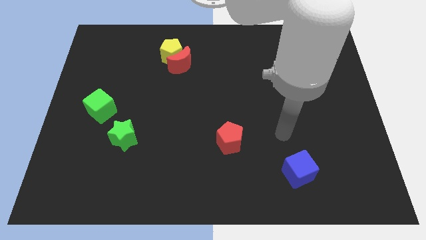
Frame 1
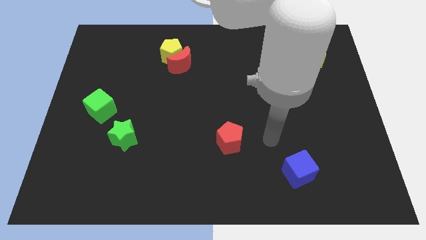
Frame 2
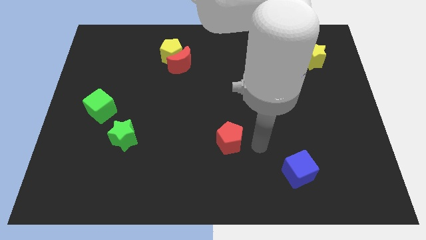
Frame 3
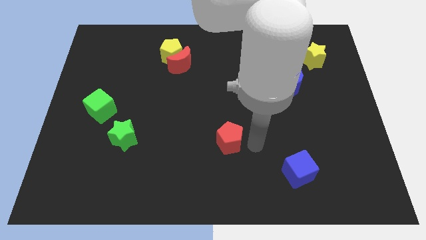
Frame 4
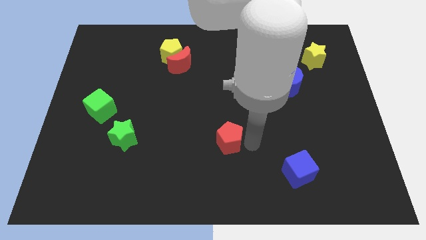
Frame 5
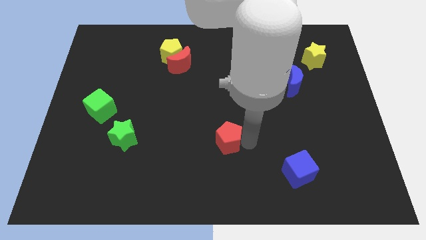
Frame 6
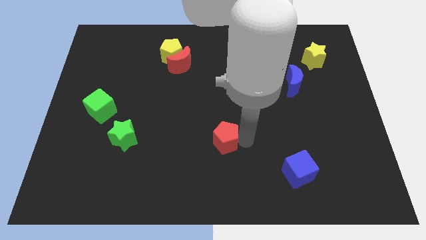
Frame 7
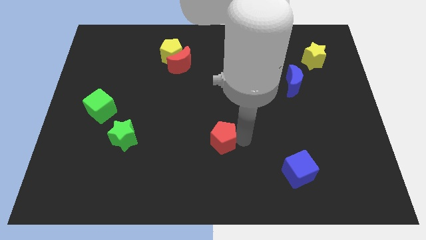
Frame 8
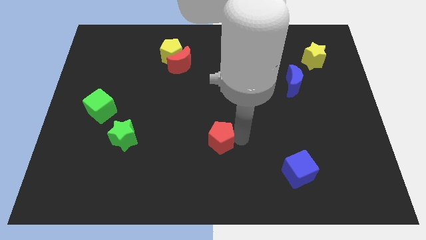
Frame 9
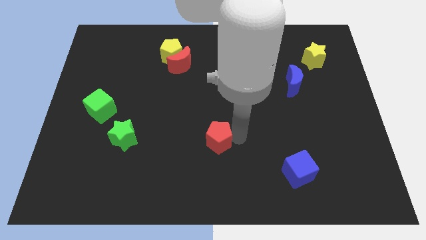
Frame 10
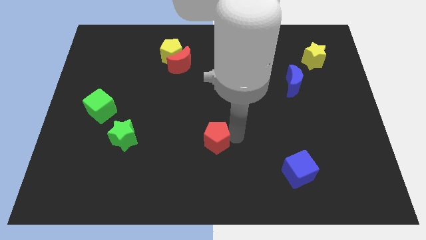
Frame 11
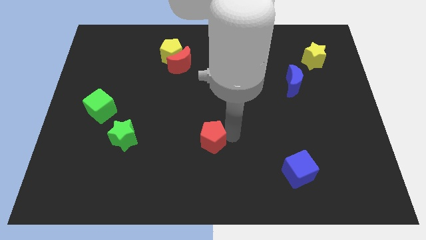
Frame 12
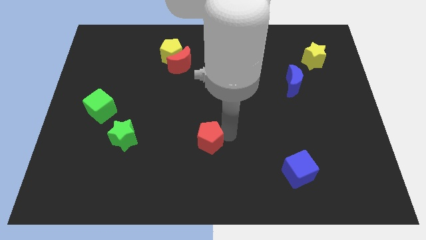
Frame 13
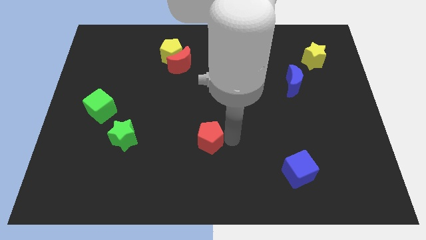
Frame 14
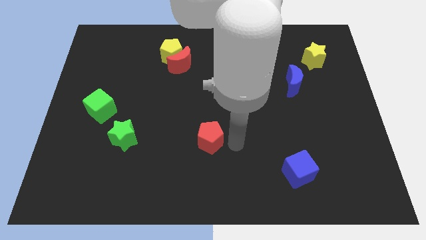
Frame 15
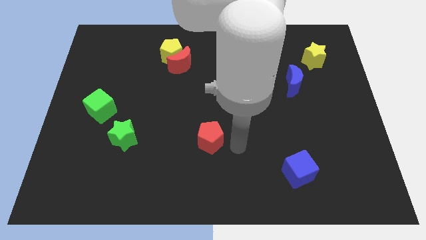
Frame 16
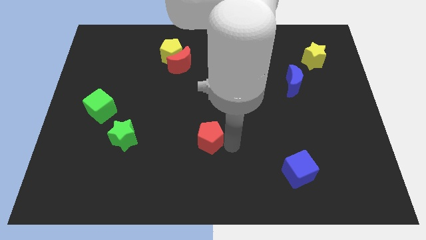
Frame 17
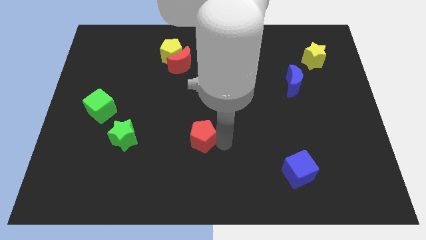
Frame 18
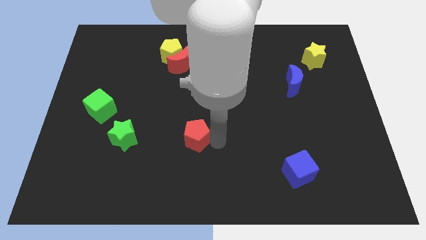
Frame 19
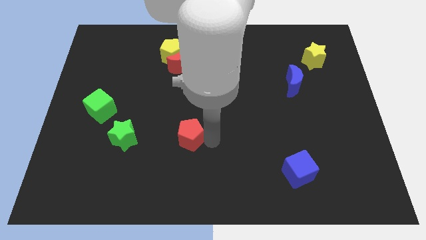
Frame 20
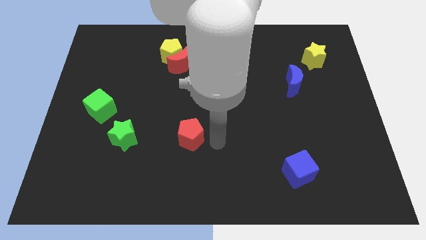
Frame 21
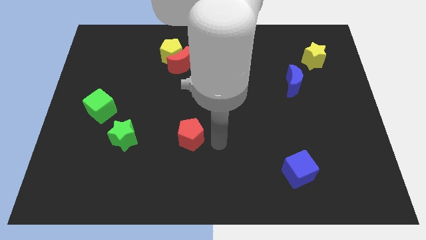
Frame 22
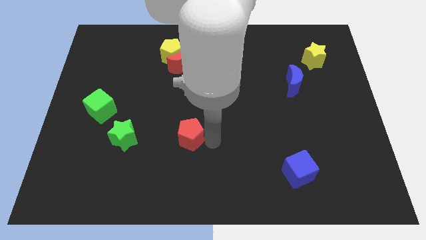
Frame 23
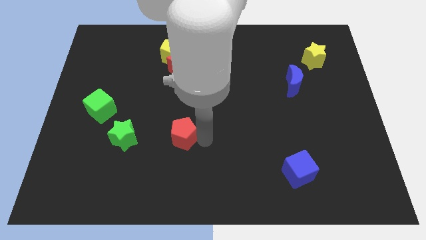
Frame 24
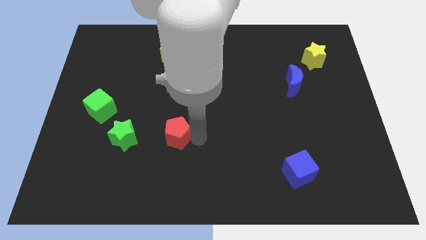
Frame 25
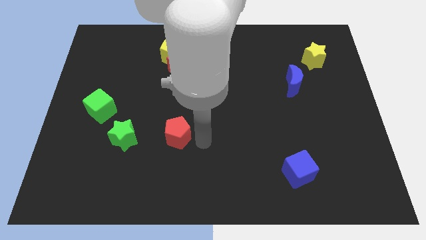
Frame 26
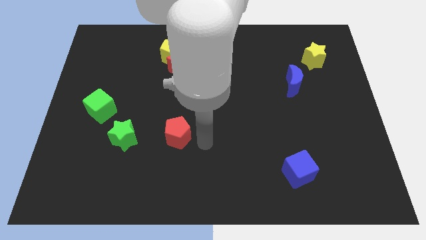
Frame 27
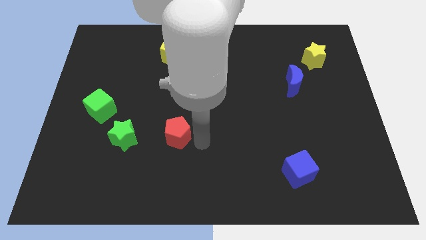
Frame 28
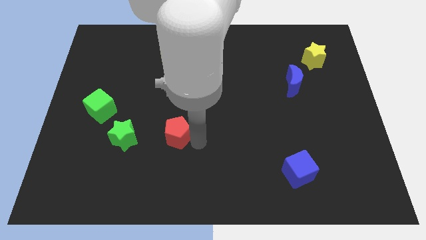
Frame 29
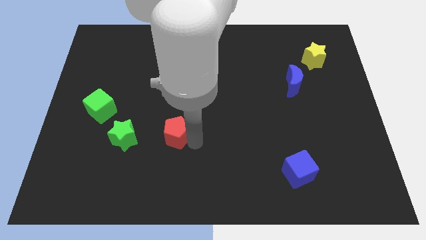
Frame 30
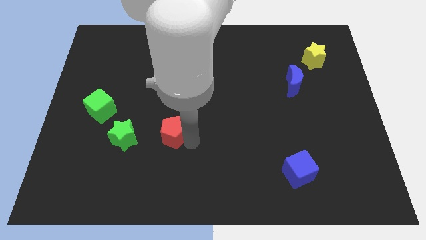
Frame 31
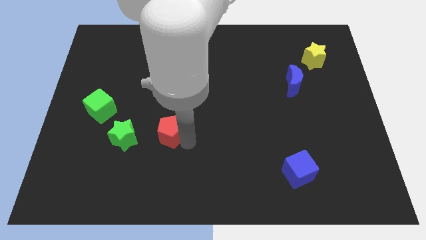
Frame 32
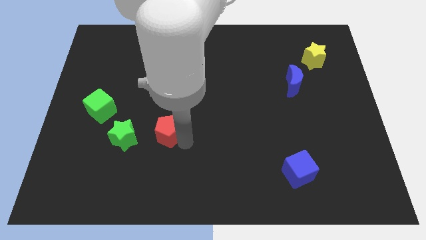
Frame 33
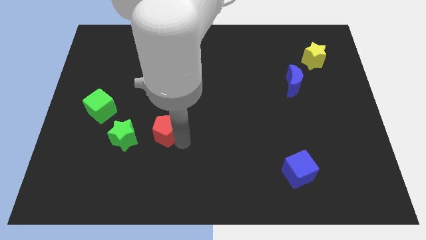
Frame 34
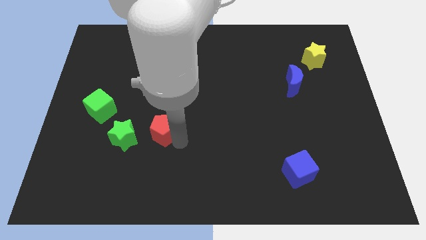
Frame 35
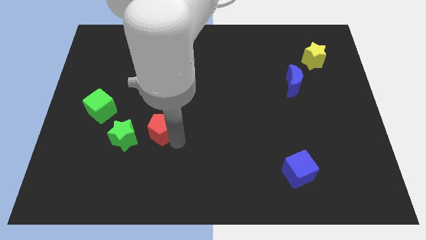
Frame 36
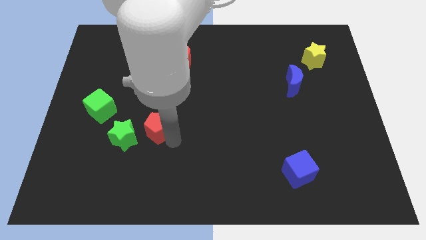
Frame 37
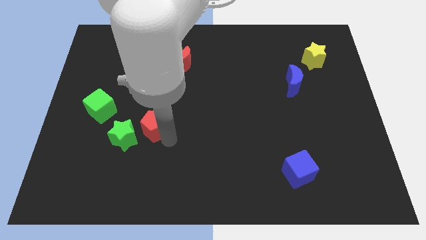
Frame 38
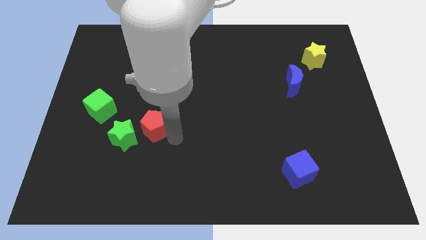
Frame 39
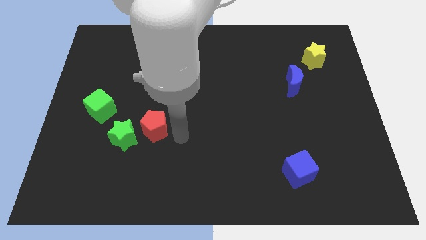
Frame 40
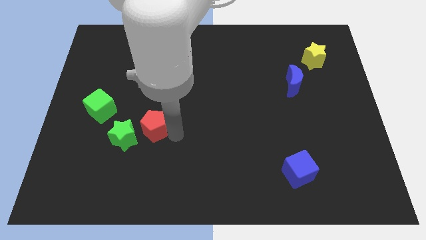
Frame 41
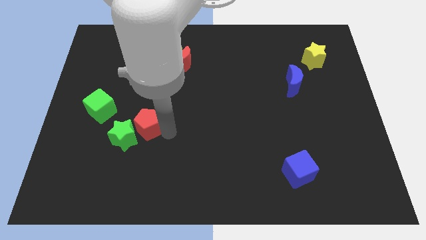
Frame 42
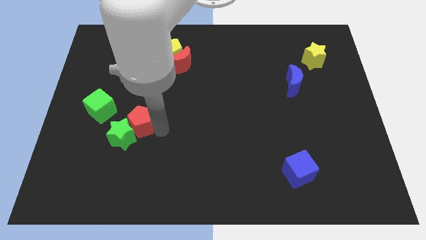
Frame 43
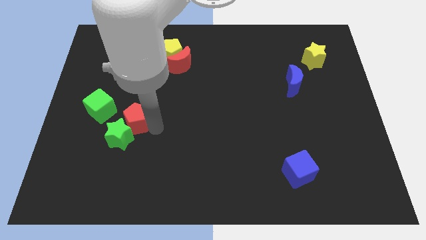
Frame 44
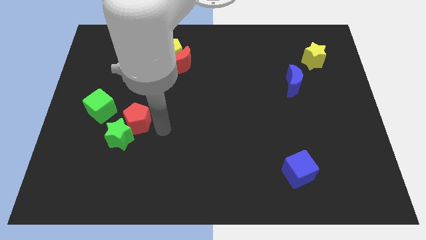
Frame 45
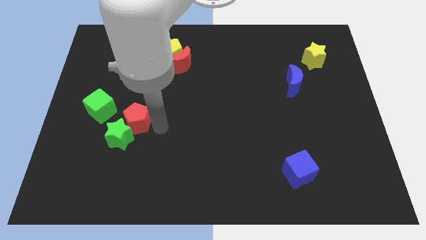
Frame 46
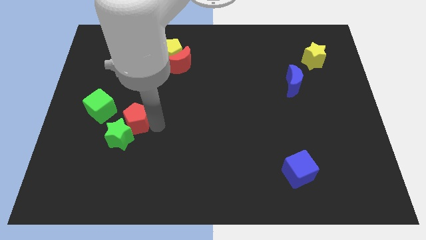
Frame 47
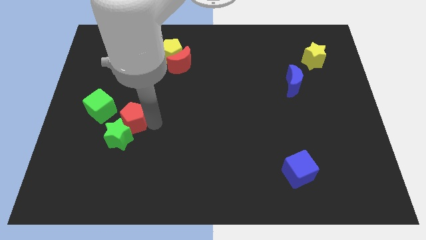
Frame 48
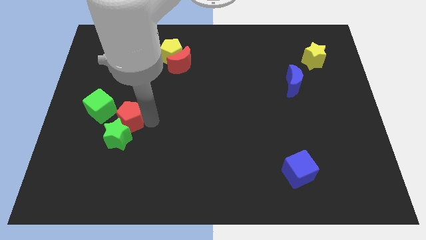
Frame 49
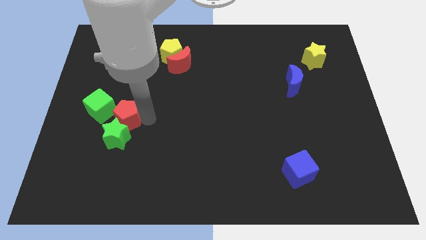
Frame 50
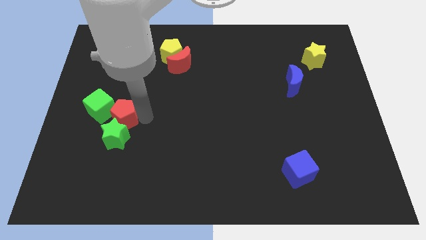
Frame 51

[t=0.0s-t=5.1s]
move the red pentagon close to the green cube

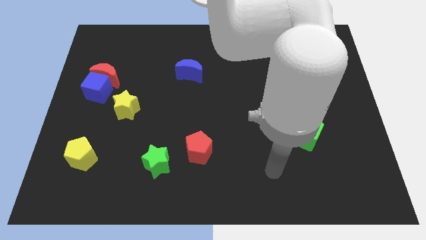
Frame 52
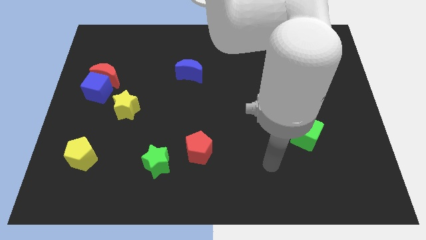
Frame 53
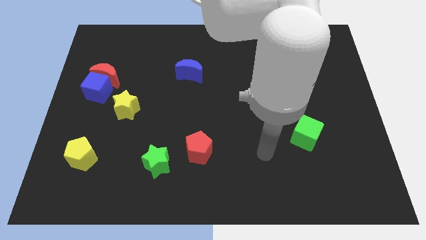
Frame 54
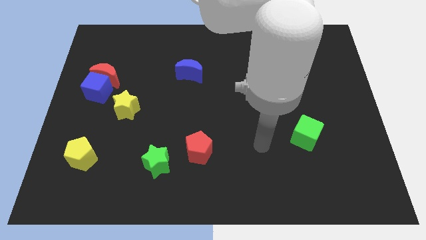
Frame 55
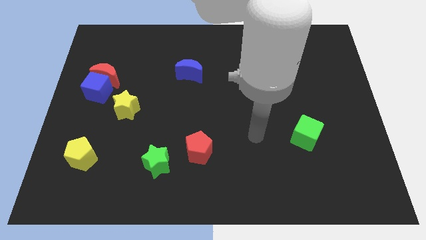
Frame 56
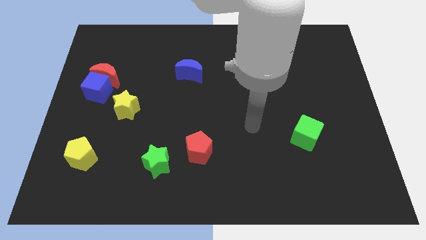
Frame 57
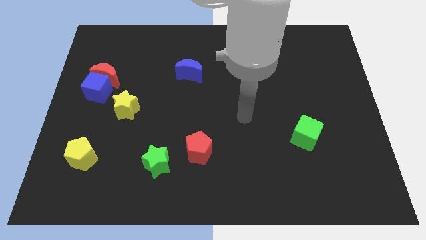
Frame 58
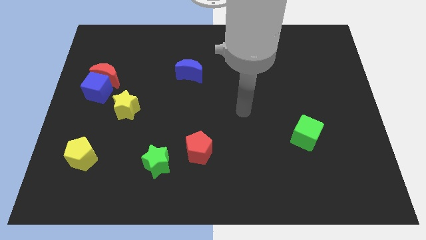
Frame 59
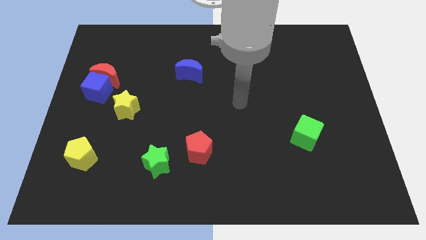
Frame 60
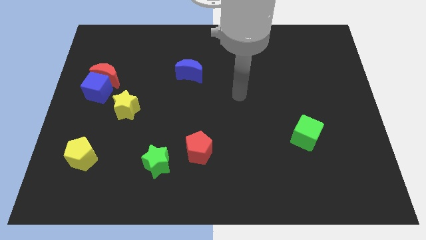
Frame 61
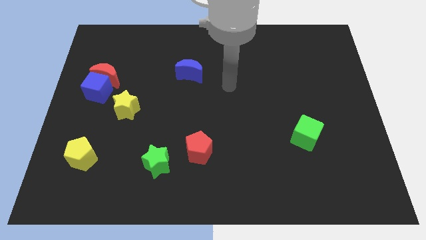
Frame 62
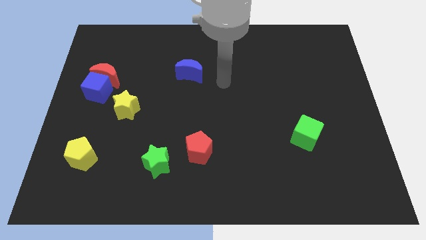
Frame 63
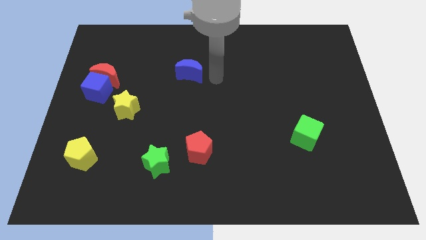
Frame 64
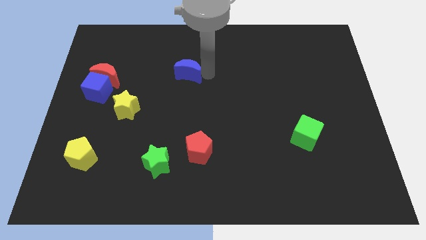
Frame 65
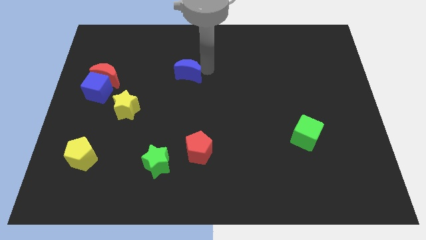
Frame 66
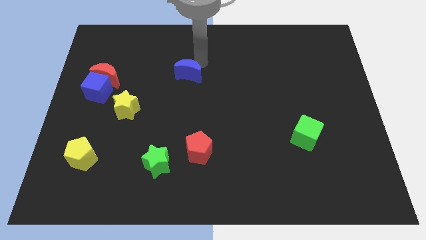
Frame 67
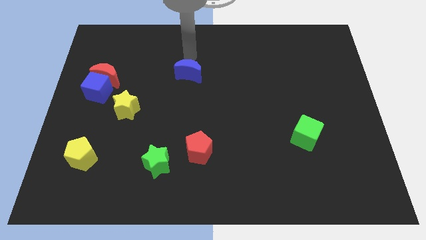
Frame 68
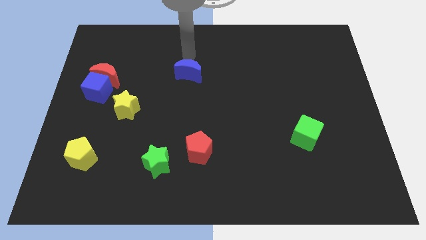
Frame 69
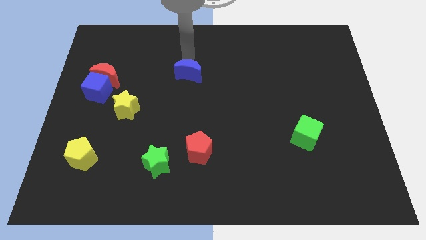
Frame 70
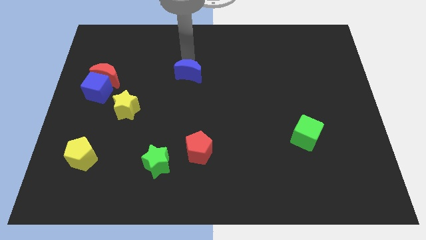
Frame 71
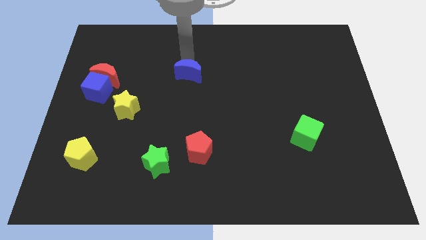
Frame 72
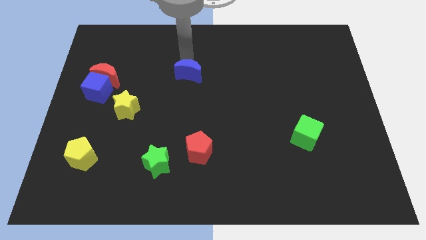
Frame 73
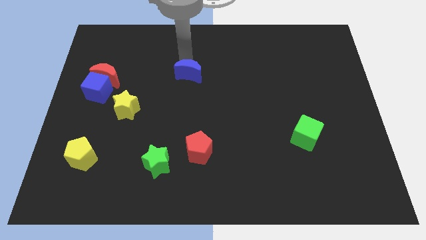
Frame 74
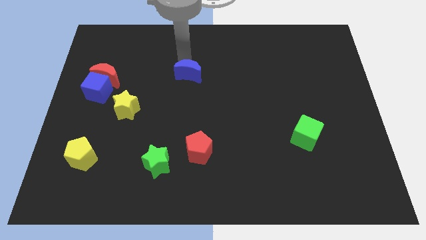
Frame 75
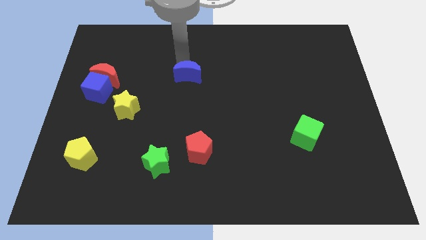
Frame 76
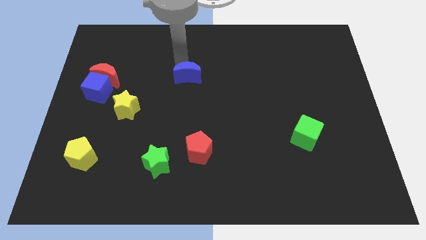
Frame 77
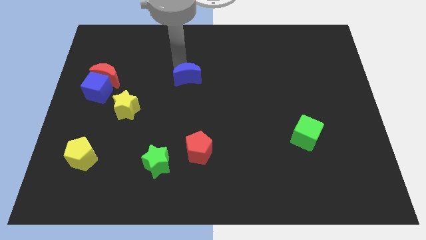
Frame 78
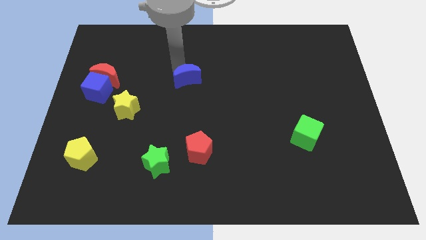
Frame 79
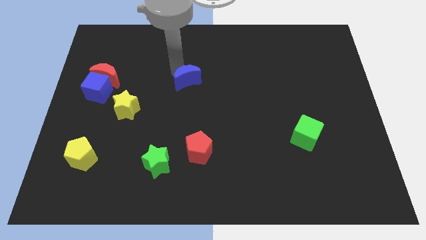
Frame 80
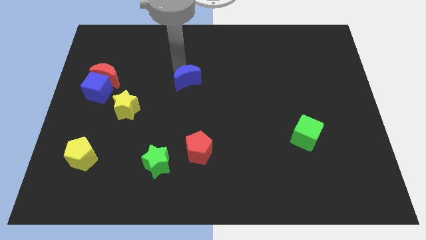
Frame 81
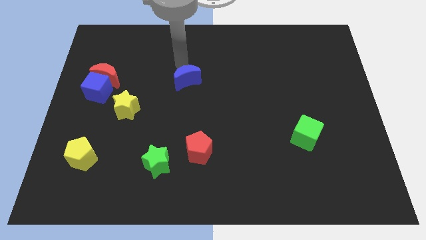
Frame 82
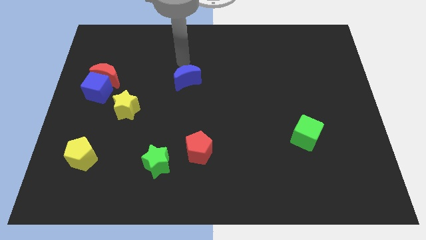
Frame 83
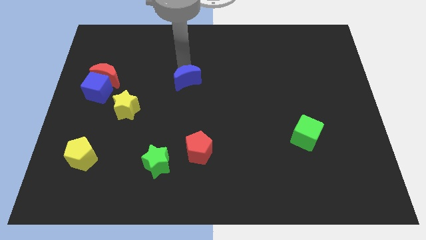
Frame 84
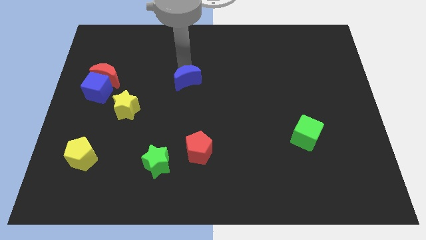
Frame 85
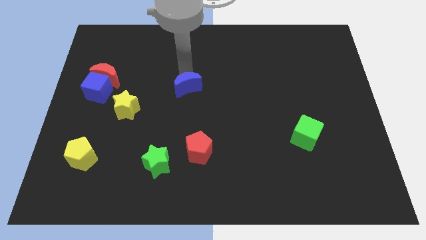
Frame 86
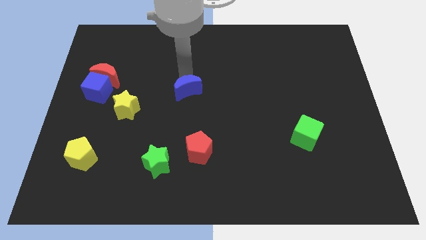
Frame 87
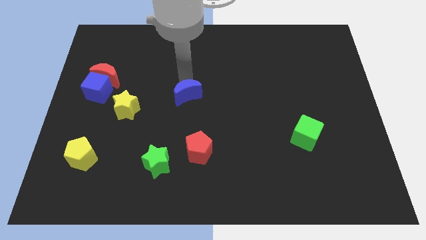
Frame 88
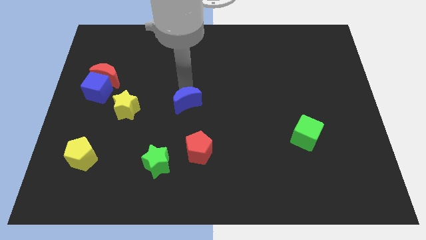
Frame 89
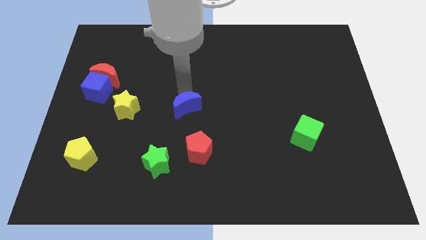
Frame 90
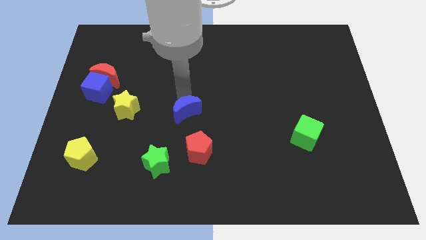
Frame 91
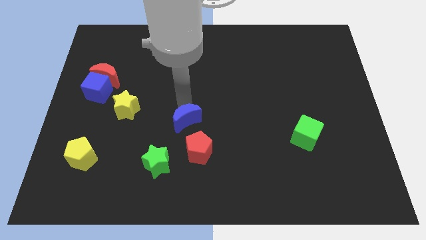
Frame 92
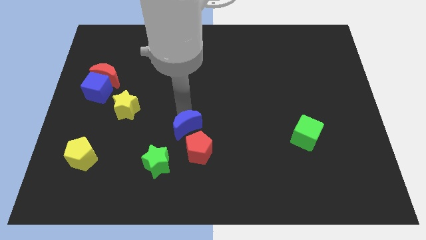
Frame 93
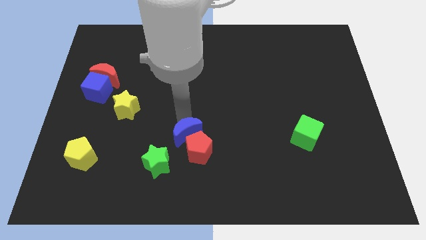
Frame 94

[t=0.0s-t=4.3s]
push the blue moon close to the red pentagon
